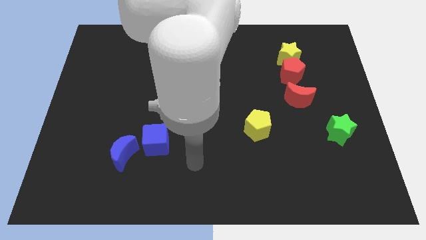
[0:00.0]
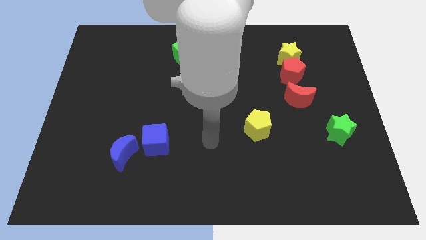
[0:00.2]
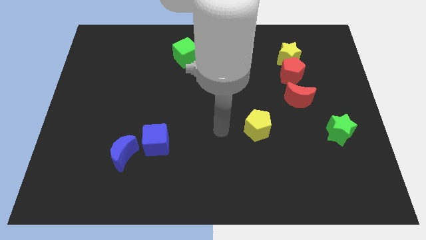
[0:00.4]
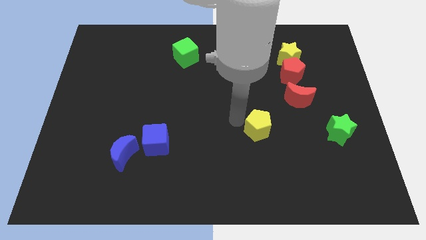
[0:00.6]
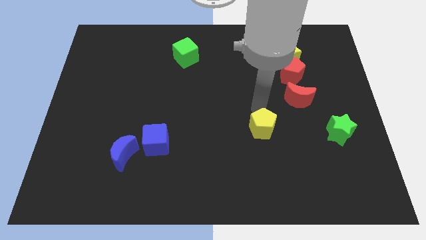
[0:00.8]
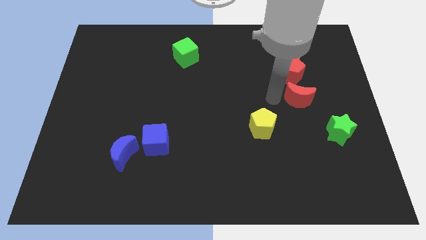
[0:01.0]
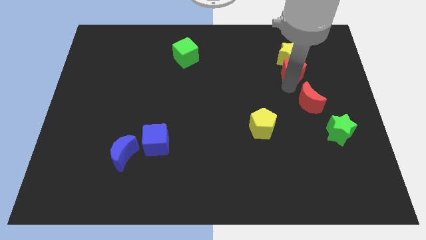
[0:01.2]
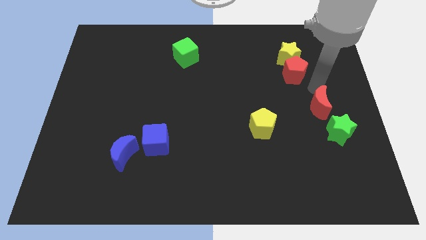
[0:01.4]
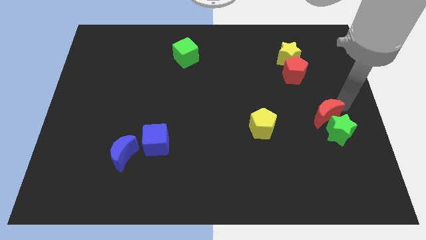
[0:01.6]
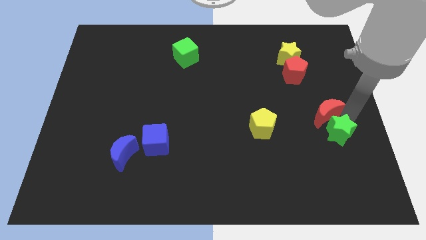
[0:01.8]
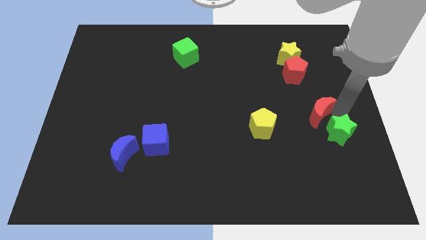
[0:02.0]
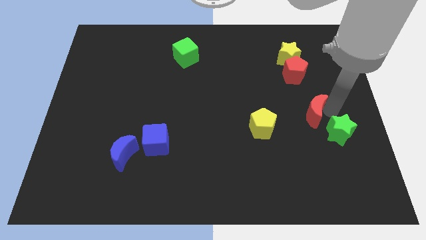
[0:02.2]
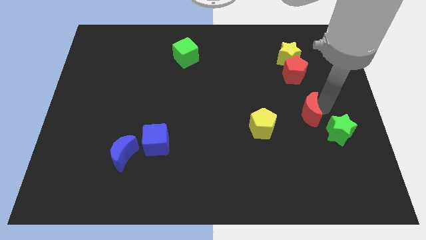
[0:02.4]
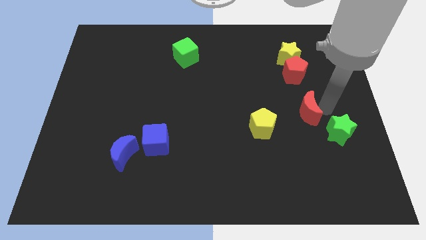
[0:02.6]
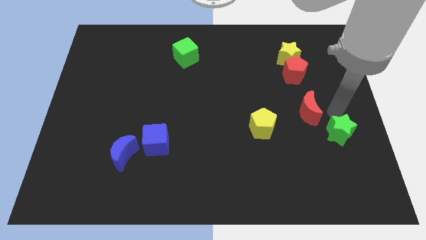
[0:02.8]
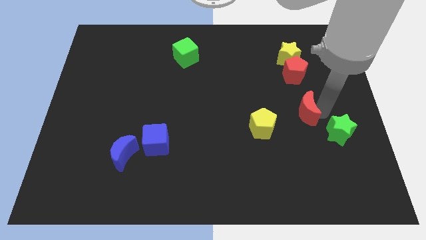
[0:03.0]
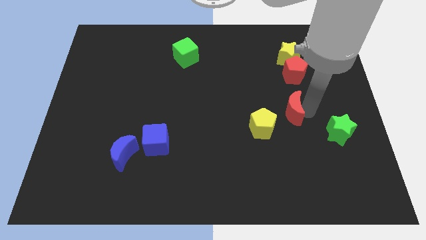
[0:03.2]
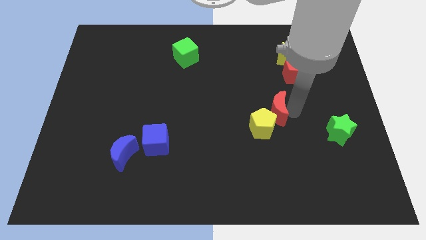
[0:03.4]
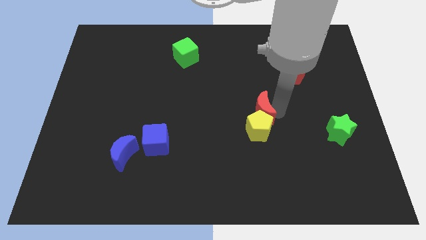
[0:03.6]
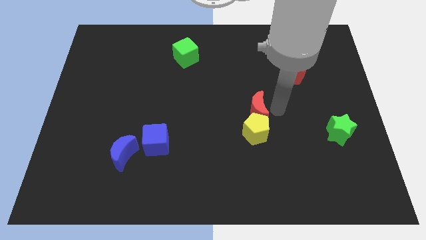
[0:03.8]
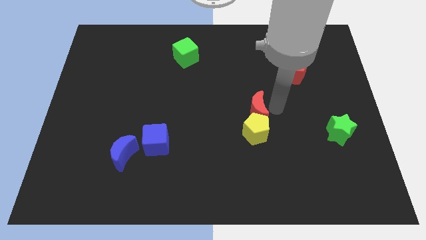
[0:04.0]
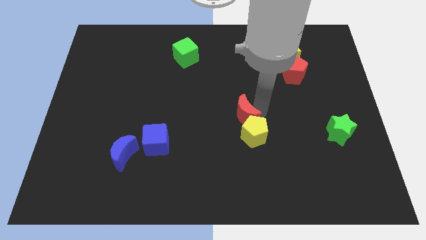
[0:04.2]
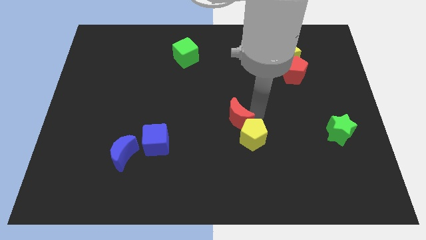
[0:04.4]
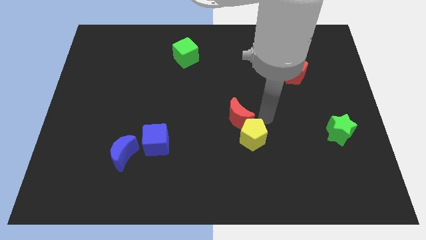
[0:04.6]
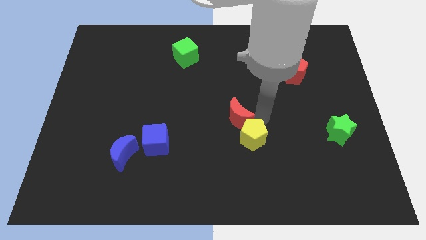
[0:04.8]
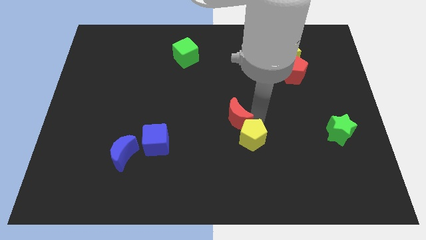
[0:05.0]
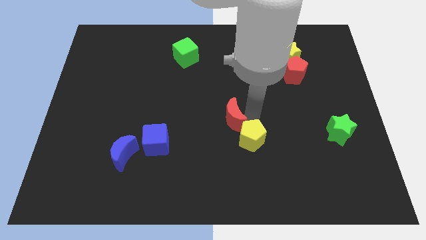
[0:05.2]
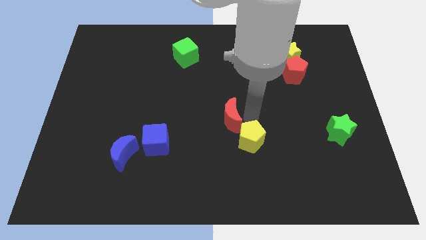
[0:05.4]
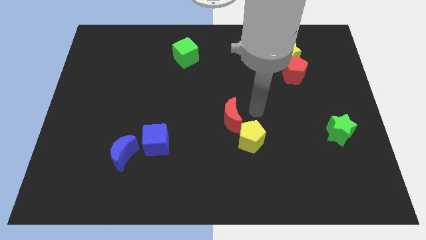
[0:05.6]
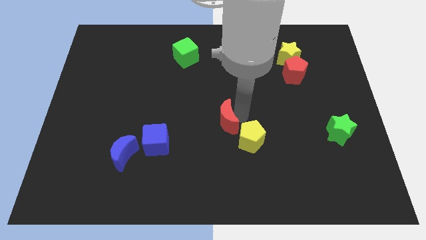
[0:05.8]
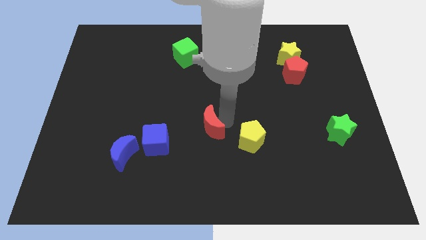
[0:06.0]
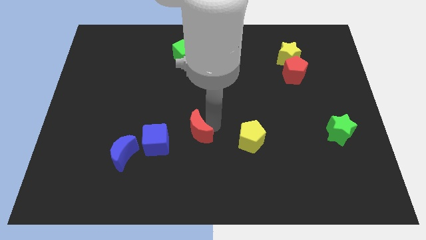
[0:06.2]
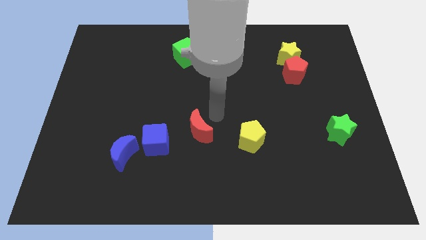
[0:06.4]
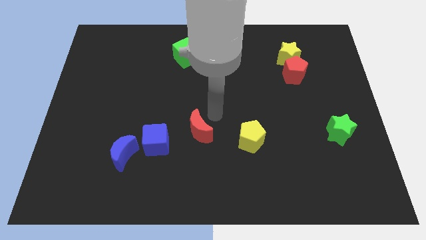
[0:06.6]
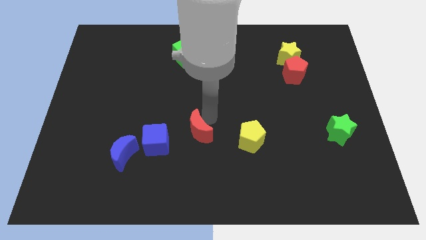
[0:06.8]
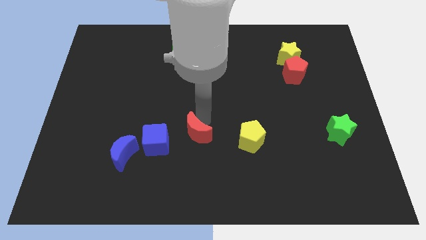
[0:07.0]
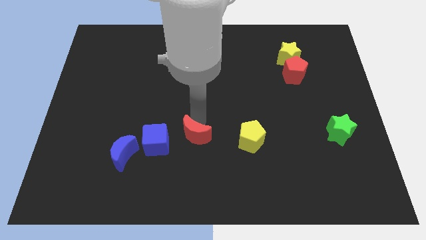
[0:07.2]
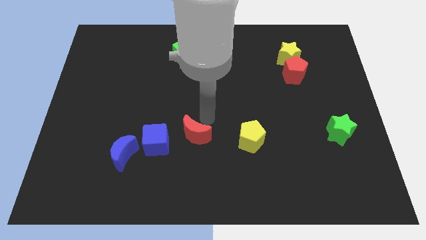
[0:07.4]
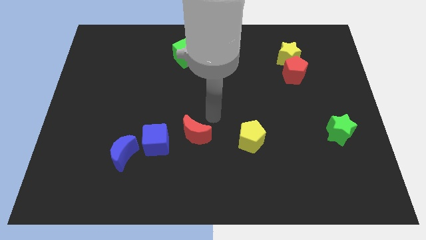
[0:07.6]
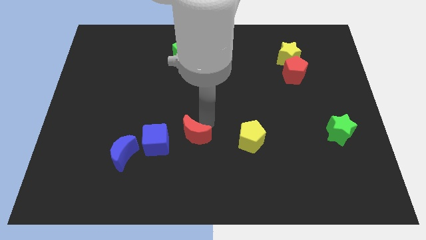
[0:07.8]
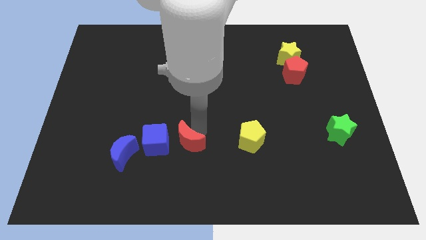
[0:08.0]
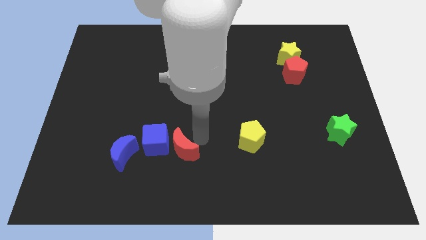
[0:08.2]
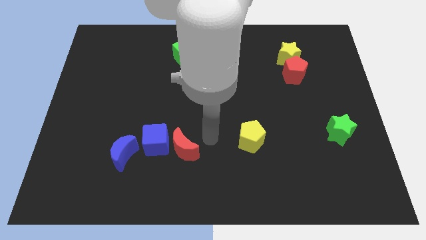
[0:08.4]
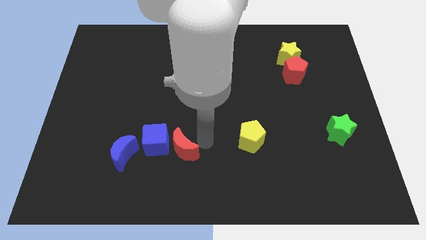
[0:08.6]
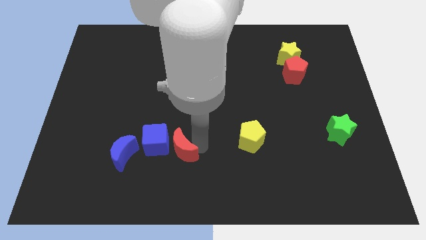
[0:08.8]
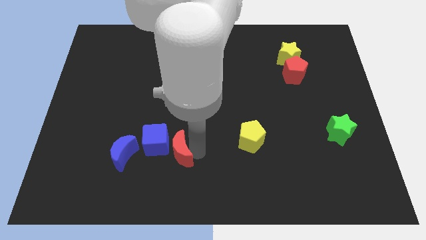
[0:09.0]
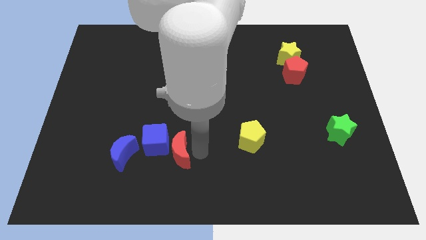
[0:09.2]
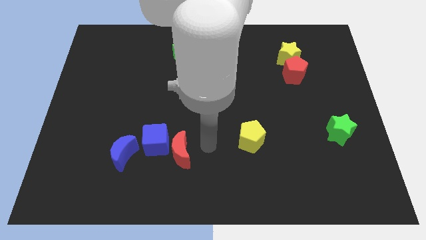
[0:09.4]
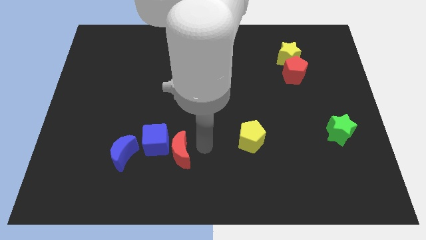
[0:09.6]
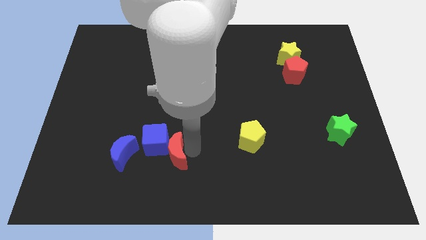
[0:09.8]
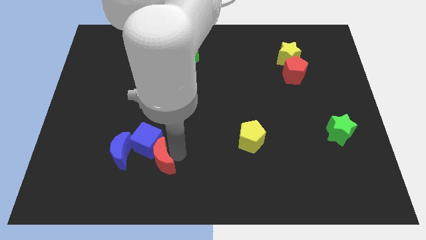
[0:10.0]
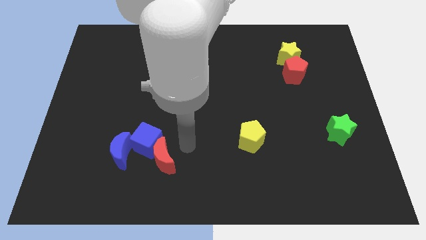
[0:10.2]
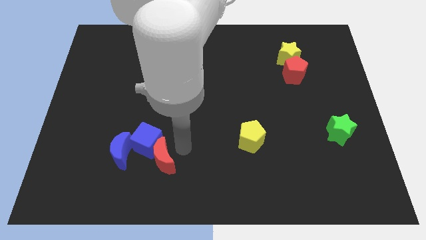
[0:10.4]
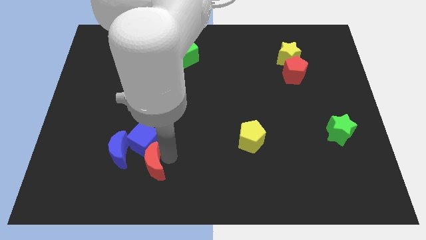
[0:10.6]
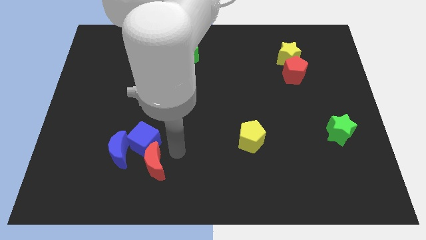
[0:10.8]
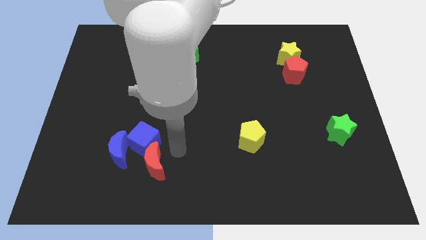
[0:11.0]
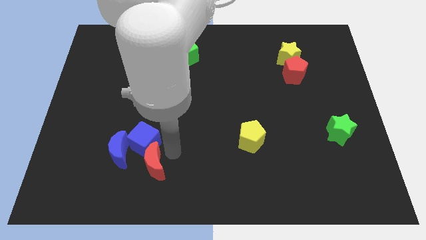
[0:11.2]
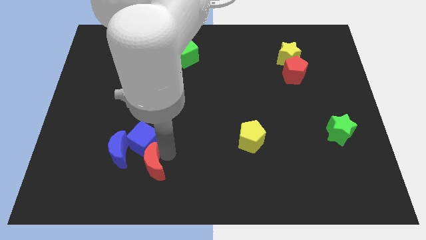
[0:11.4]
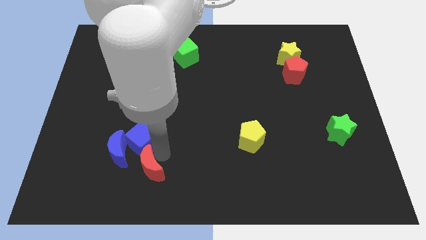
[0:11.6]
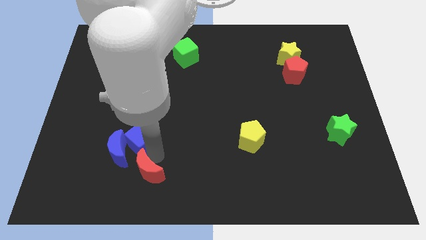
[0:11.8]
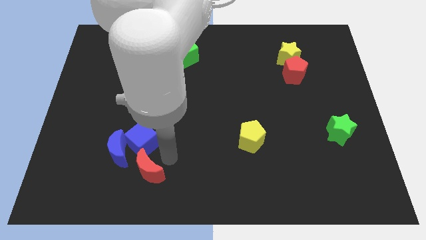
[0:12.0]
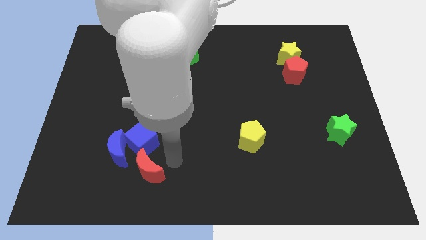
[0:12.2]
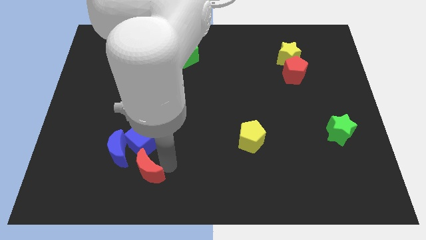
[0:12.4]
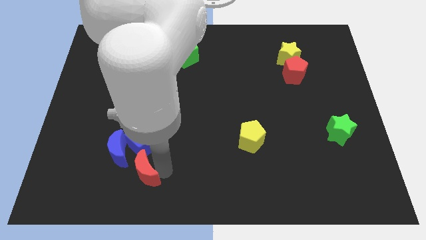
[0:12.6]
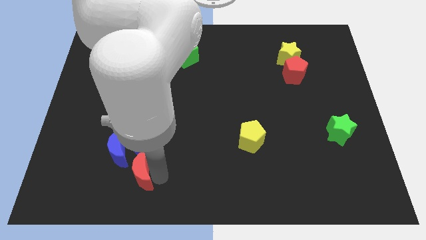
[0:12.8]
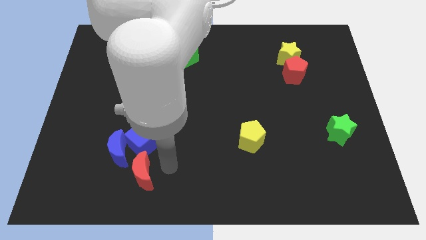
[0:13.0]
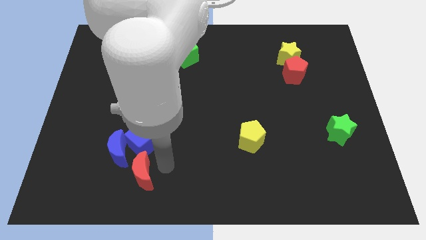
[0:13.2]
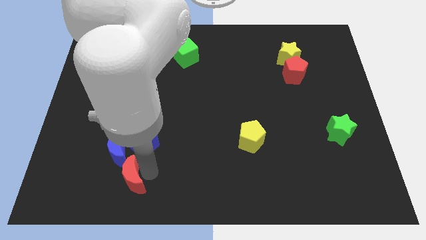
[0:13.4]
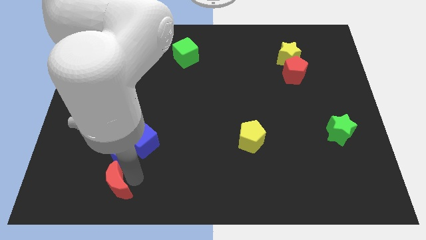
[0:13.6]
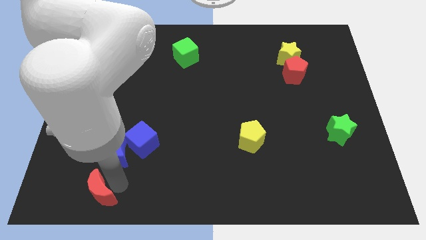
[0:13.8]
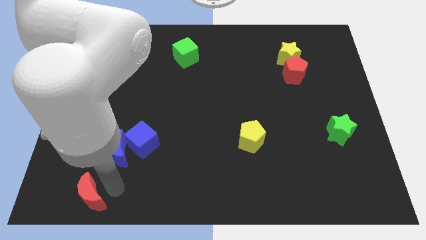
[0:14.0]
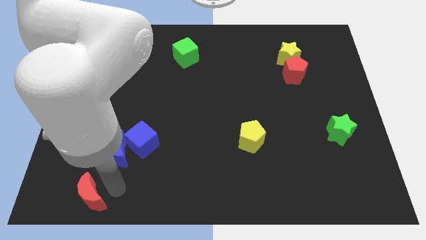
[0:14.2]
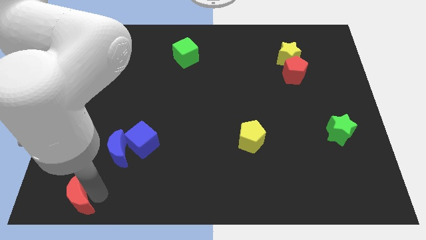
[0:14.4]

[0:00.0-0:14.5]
move the red moon to the bottom left of the board
